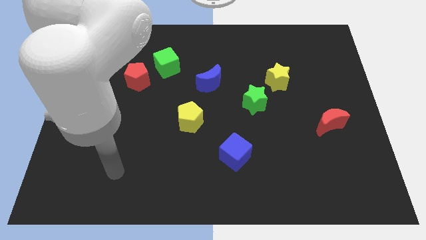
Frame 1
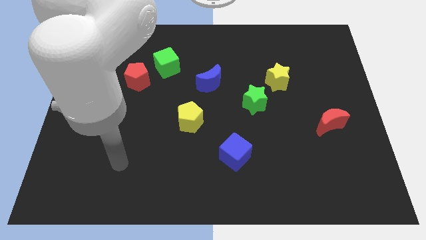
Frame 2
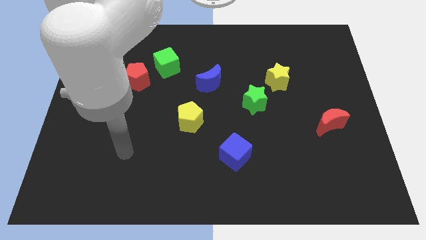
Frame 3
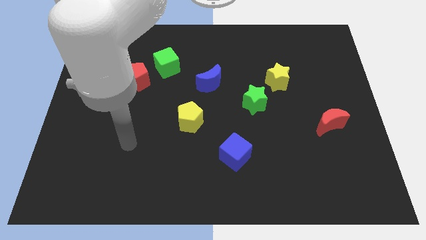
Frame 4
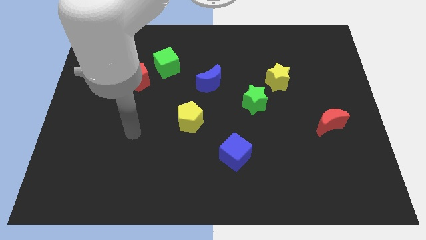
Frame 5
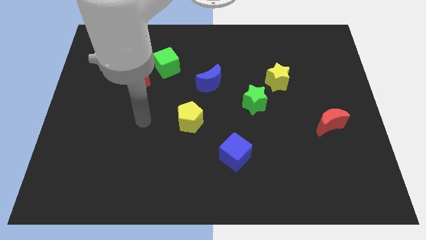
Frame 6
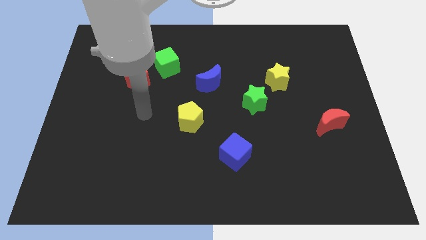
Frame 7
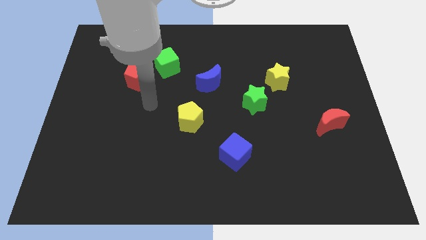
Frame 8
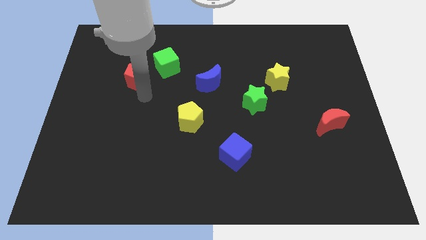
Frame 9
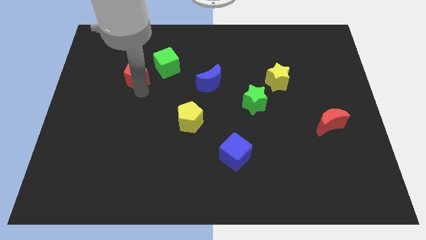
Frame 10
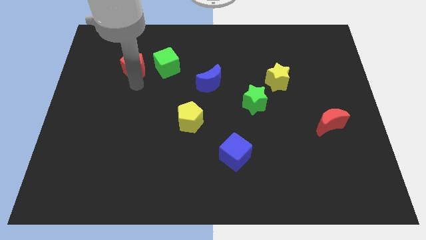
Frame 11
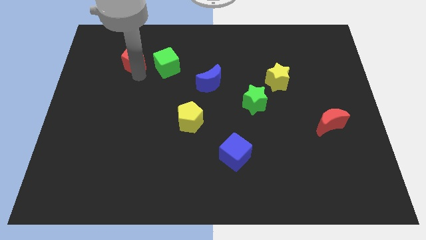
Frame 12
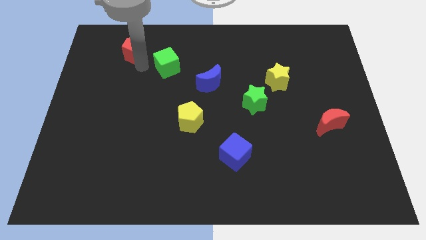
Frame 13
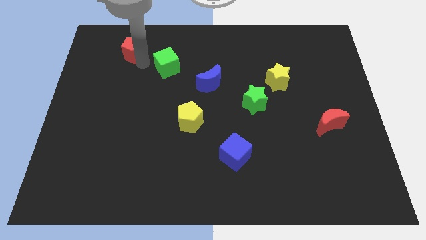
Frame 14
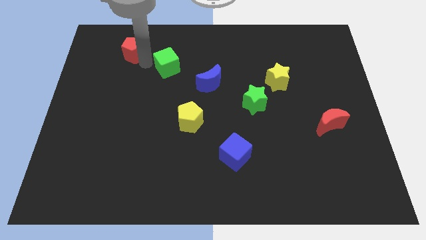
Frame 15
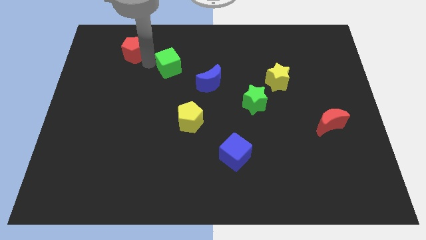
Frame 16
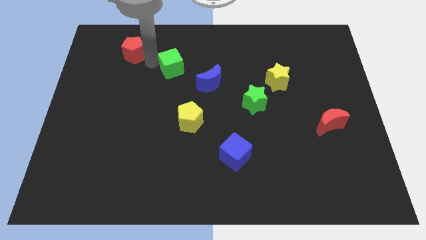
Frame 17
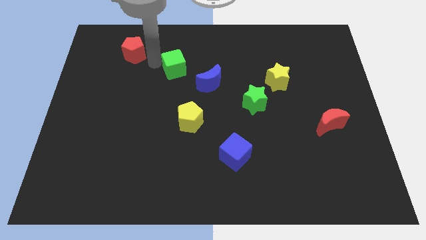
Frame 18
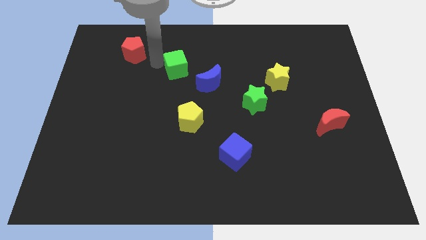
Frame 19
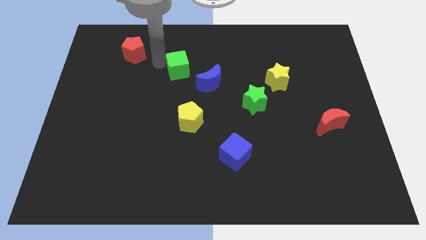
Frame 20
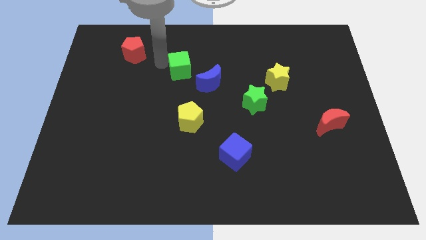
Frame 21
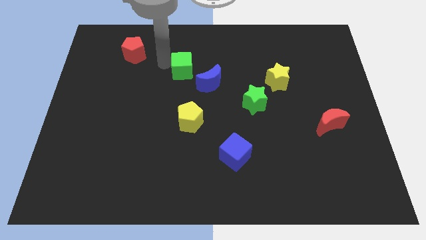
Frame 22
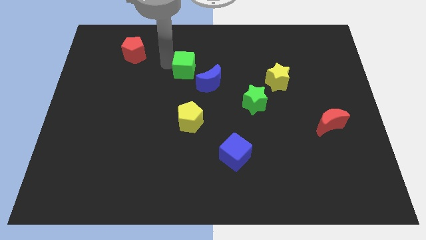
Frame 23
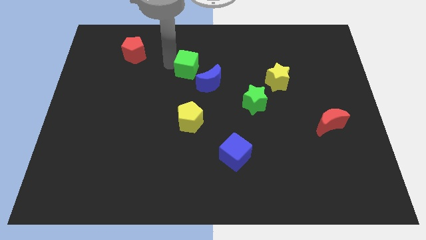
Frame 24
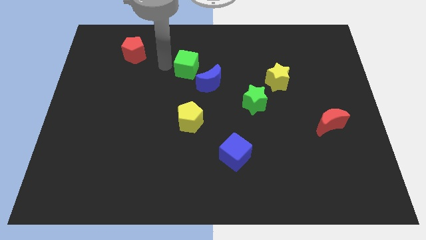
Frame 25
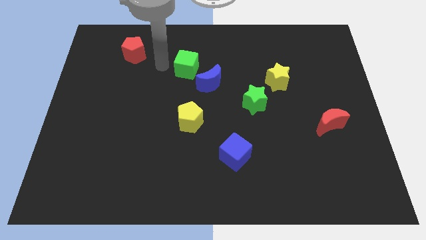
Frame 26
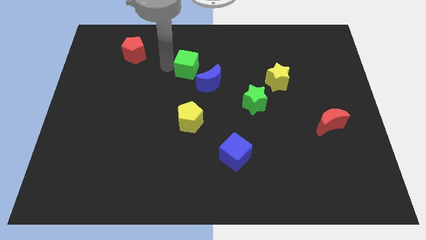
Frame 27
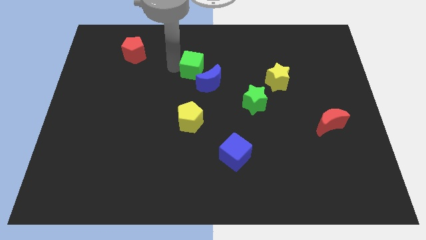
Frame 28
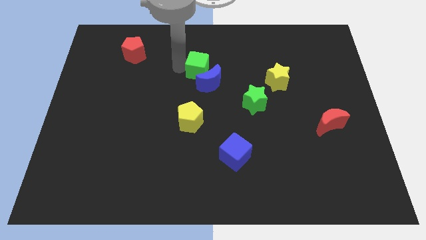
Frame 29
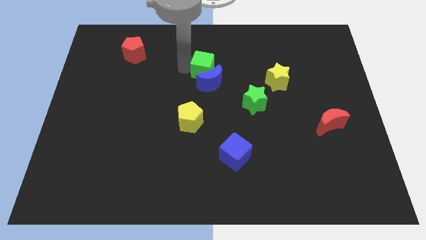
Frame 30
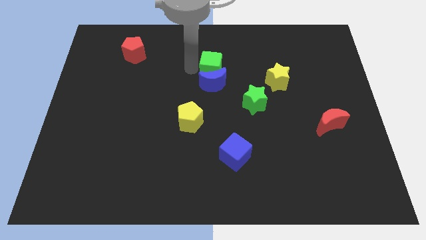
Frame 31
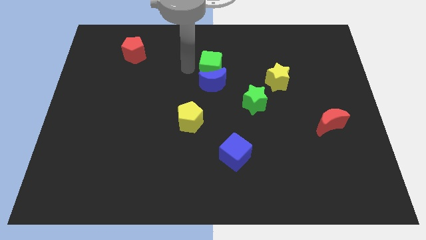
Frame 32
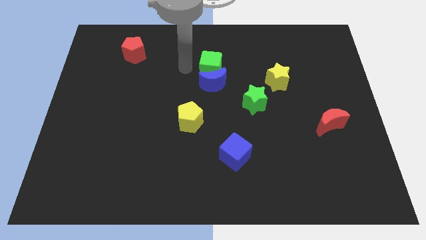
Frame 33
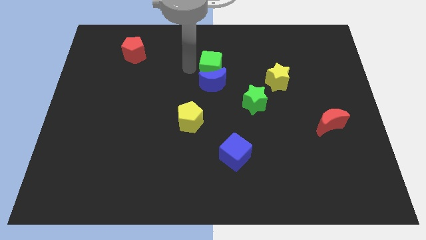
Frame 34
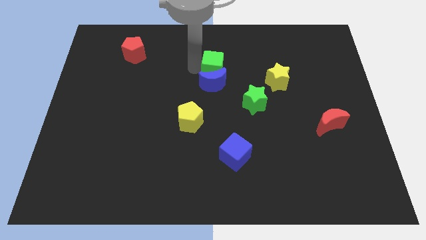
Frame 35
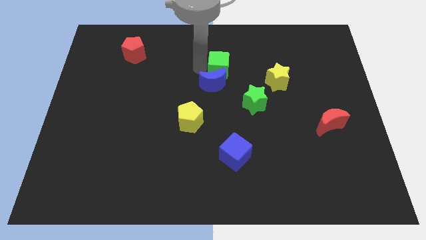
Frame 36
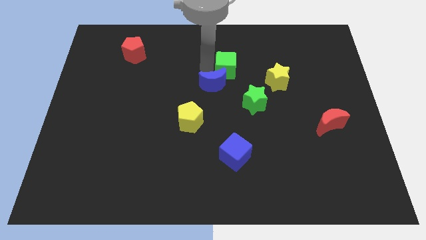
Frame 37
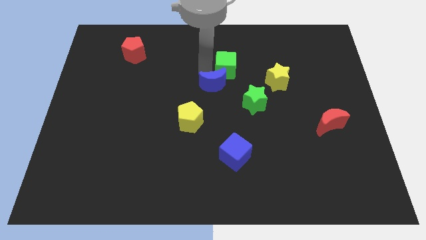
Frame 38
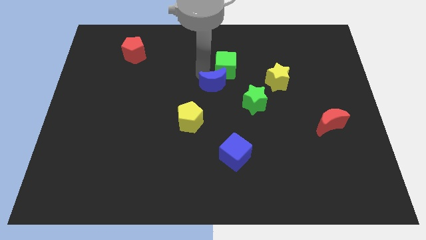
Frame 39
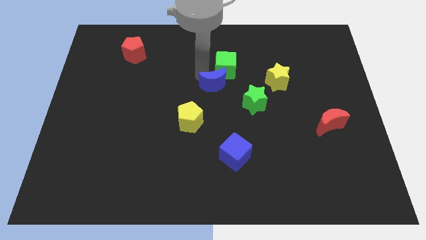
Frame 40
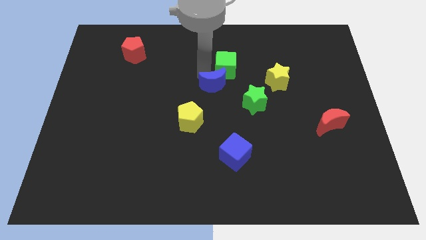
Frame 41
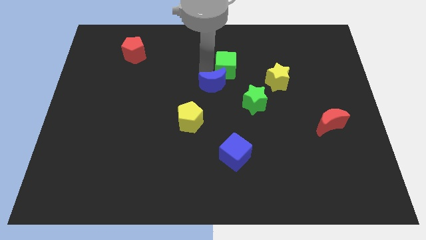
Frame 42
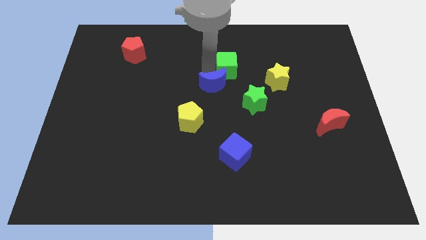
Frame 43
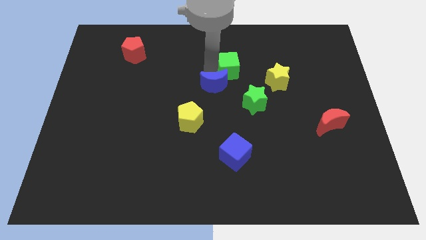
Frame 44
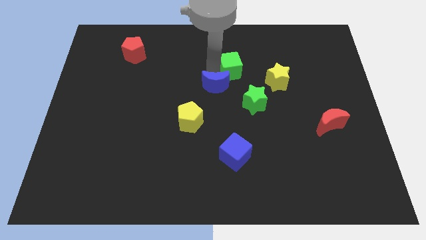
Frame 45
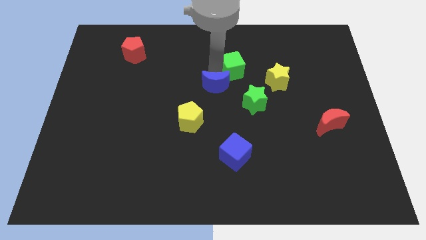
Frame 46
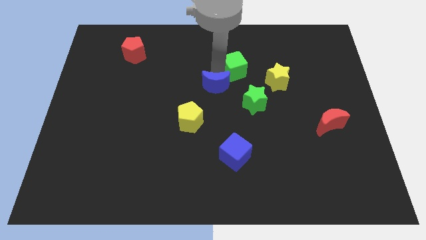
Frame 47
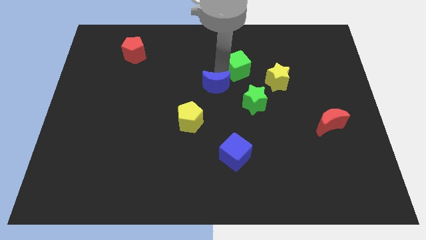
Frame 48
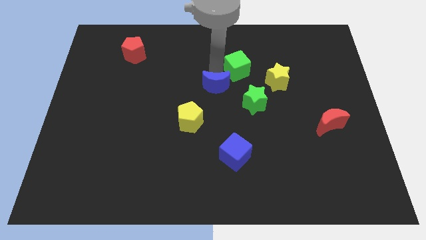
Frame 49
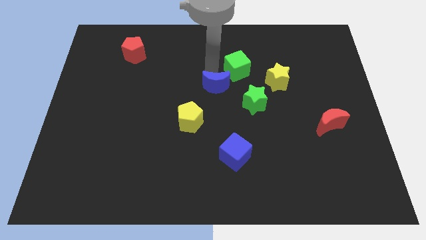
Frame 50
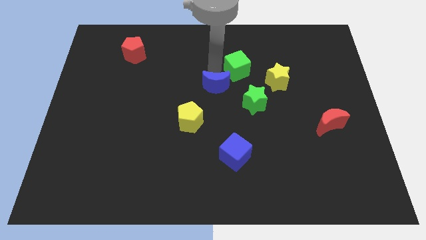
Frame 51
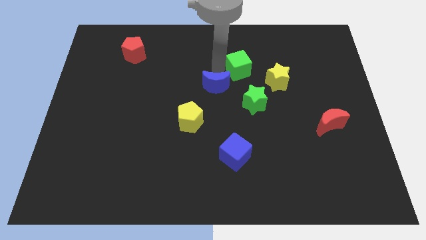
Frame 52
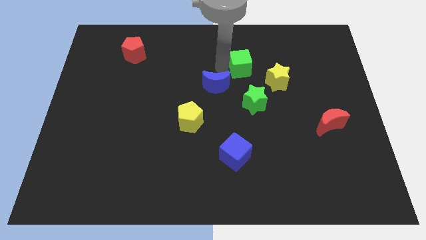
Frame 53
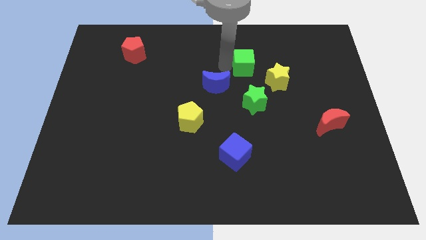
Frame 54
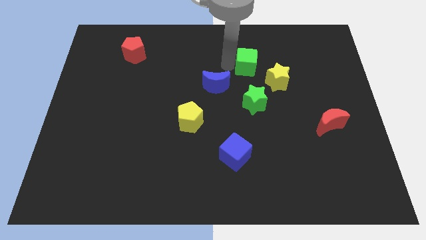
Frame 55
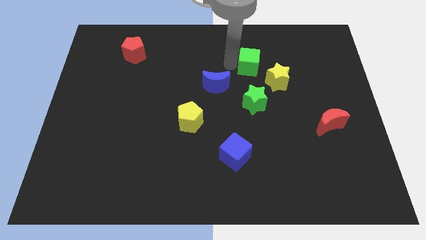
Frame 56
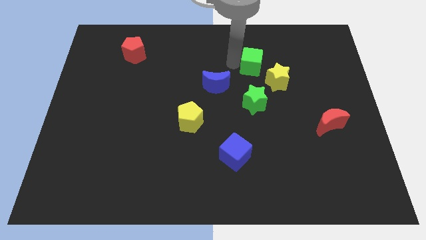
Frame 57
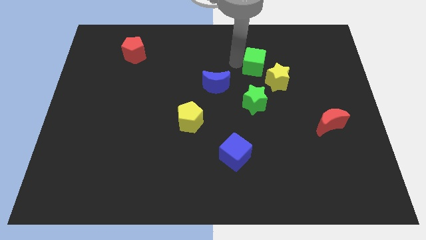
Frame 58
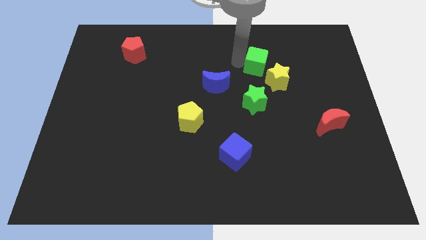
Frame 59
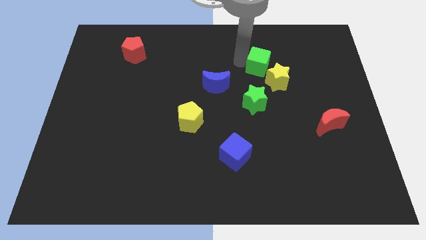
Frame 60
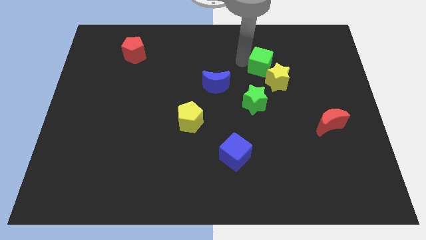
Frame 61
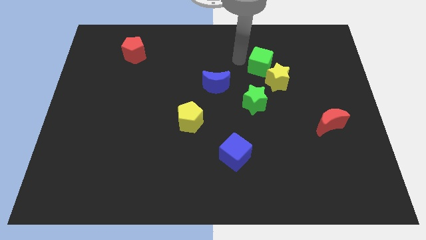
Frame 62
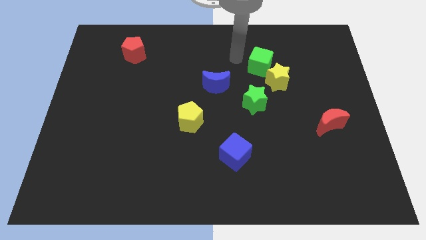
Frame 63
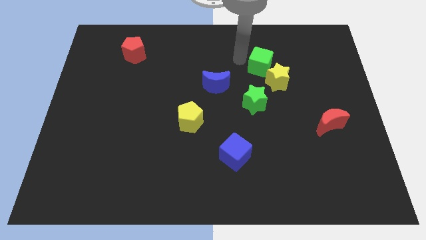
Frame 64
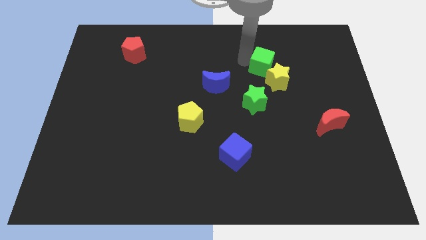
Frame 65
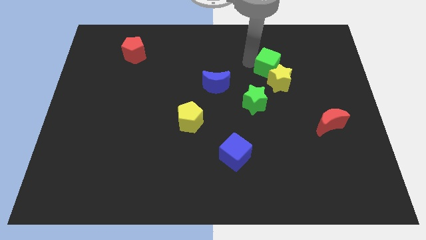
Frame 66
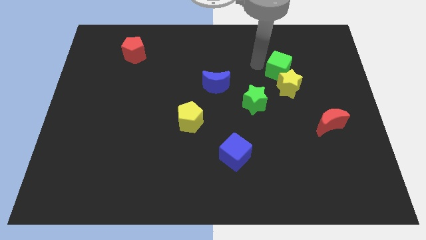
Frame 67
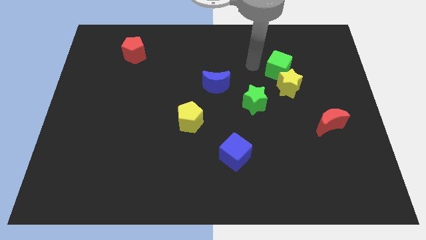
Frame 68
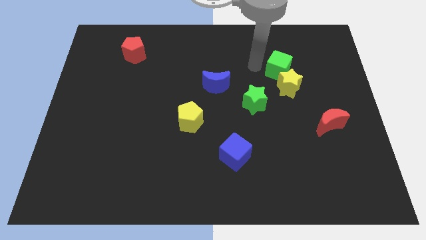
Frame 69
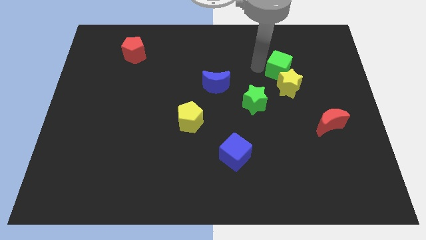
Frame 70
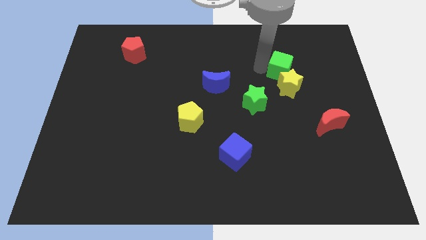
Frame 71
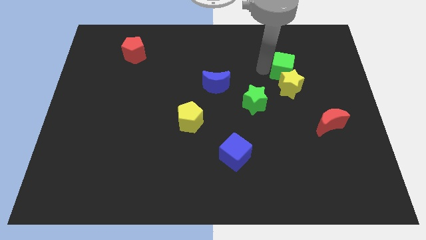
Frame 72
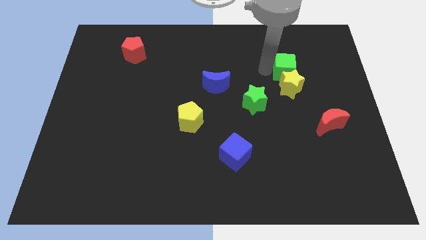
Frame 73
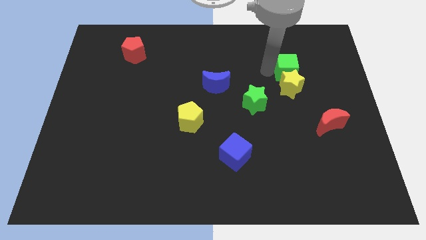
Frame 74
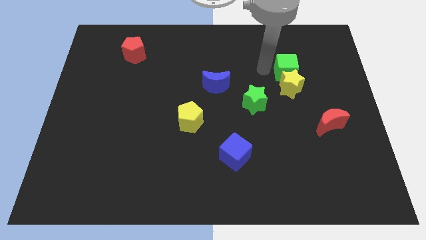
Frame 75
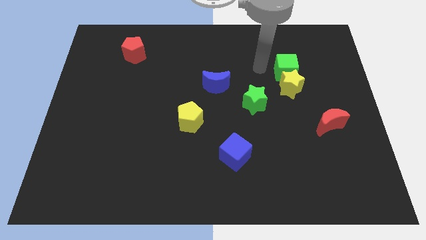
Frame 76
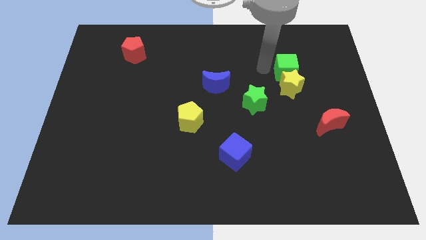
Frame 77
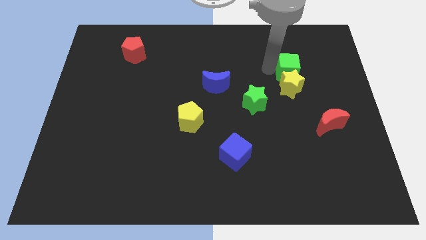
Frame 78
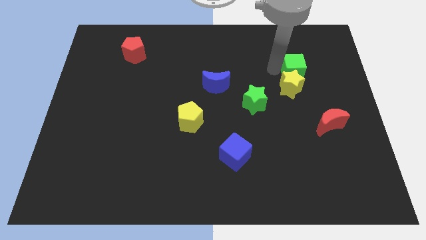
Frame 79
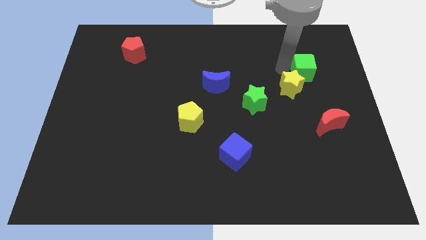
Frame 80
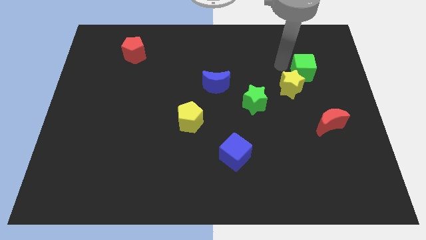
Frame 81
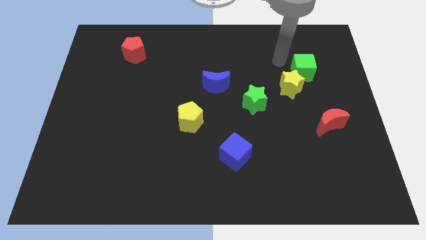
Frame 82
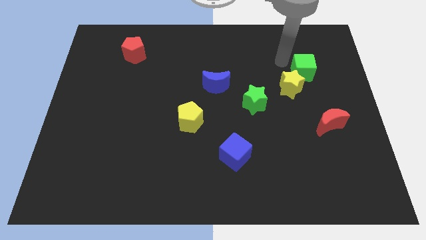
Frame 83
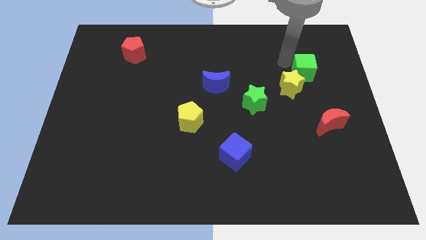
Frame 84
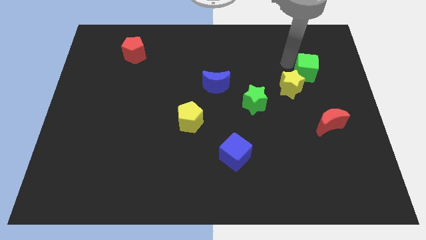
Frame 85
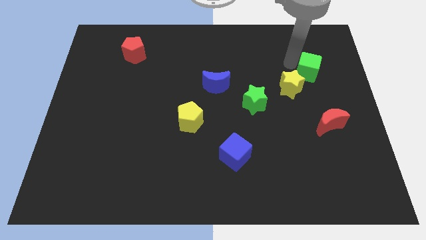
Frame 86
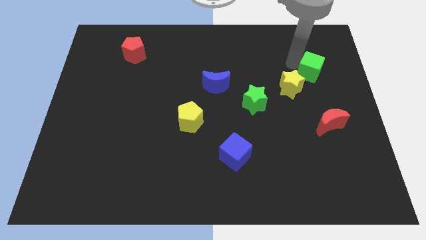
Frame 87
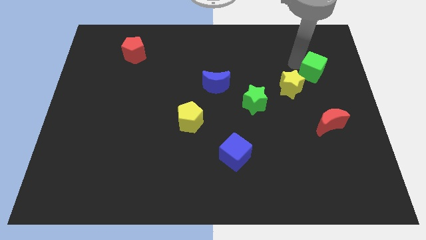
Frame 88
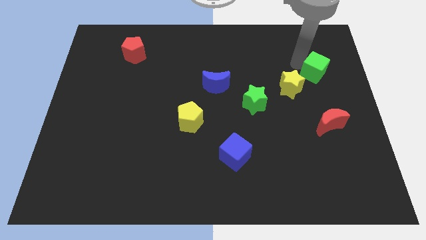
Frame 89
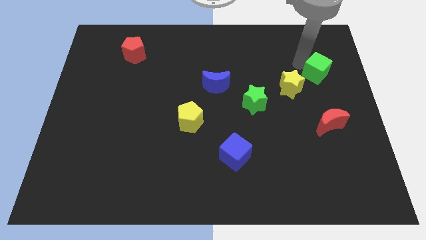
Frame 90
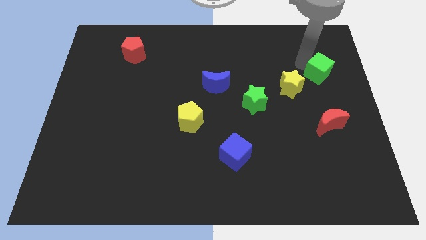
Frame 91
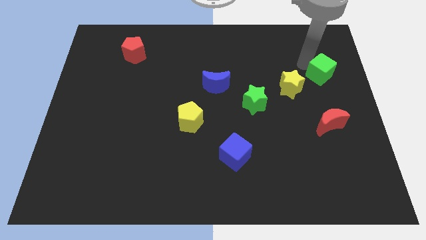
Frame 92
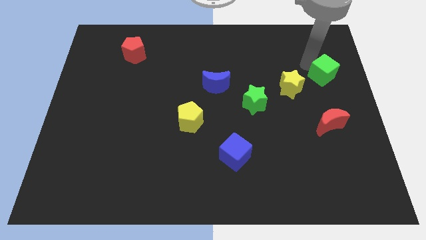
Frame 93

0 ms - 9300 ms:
push the green cube to the center right
